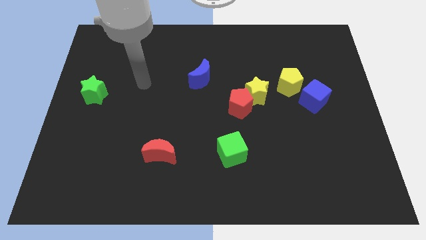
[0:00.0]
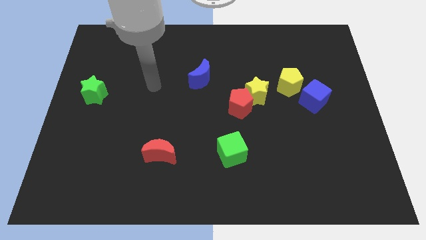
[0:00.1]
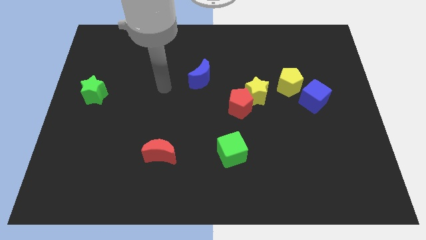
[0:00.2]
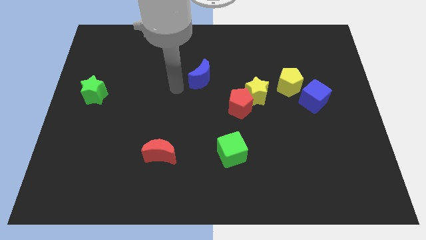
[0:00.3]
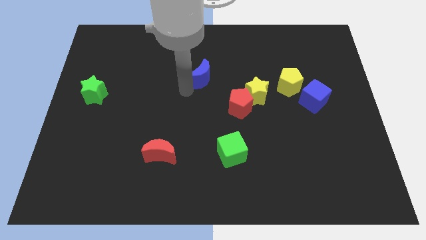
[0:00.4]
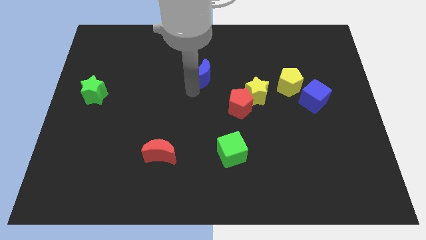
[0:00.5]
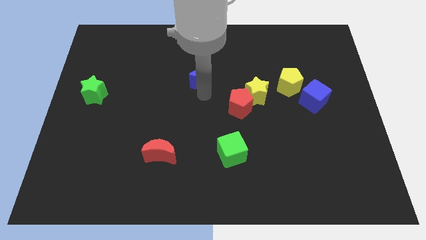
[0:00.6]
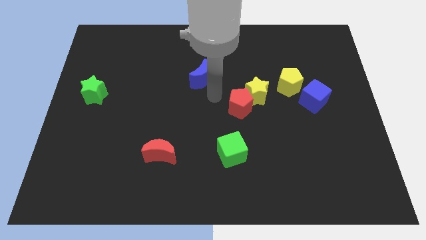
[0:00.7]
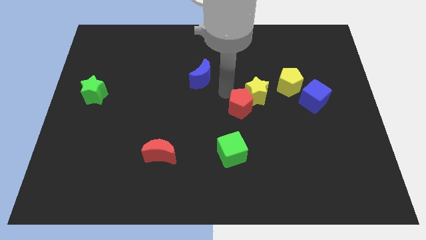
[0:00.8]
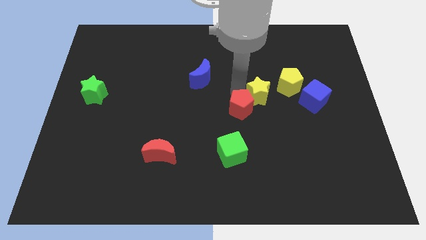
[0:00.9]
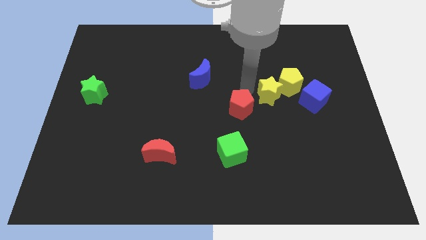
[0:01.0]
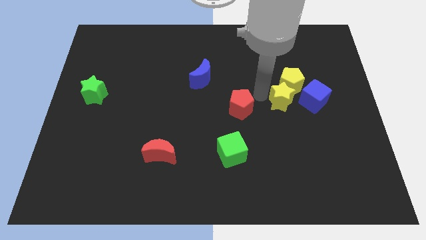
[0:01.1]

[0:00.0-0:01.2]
separate the red pentagon from the yellow star

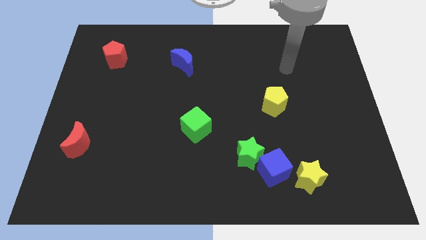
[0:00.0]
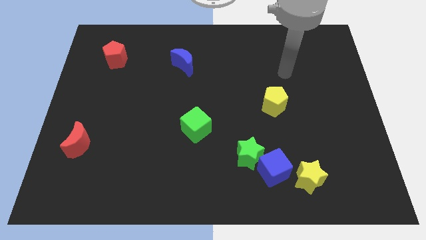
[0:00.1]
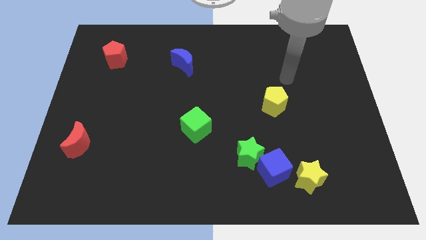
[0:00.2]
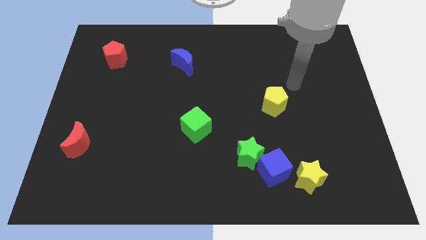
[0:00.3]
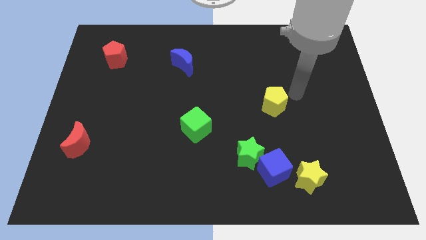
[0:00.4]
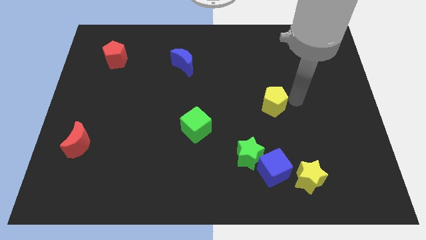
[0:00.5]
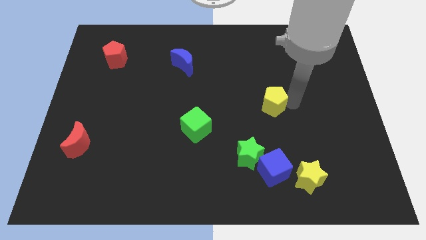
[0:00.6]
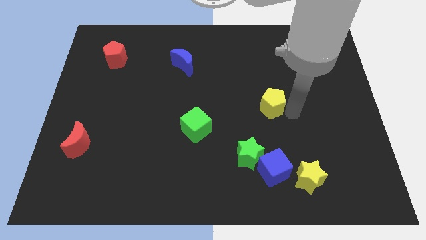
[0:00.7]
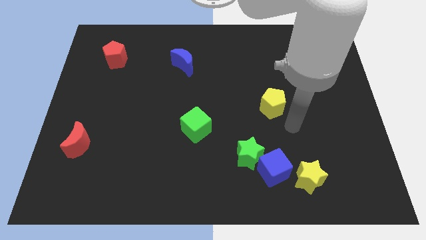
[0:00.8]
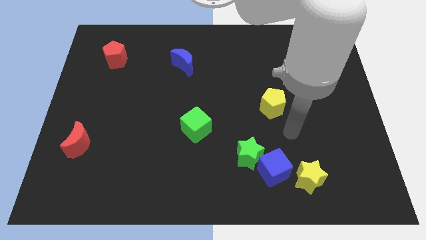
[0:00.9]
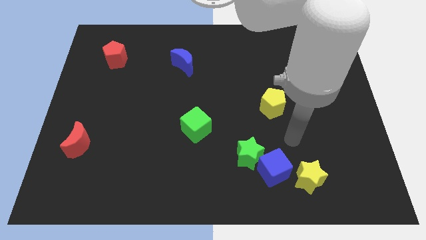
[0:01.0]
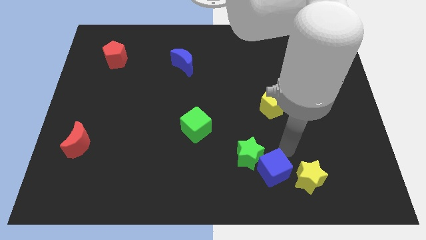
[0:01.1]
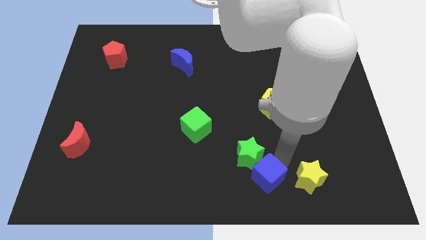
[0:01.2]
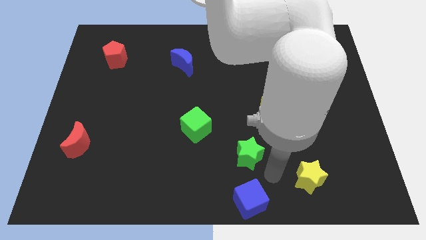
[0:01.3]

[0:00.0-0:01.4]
pull the green star apart from the blue cube

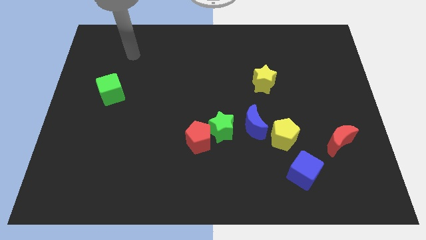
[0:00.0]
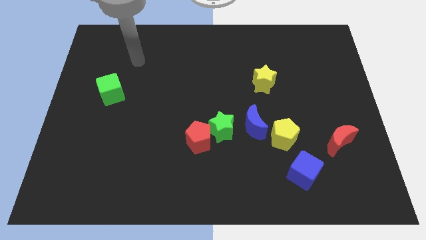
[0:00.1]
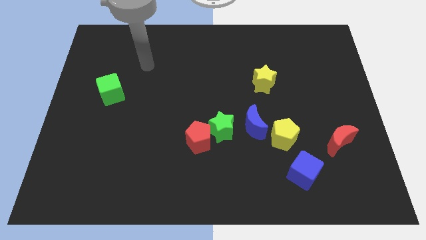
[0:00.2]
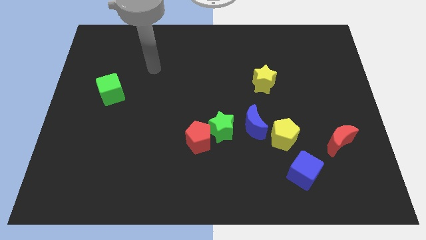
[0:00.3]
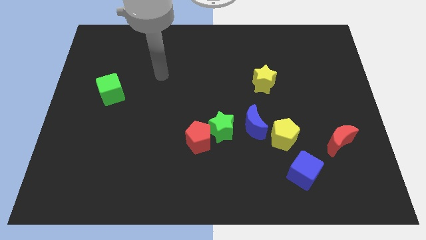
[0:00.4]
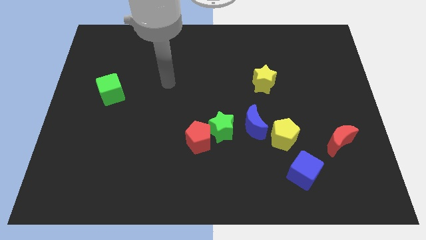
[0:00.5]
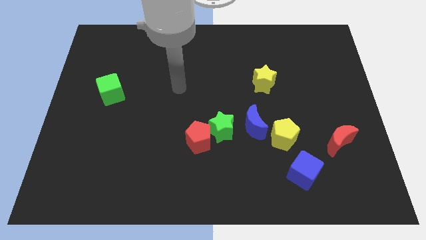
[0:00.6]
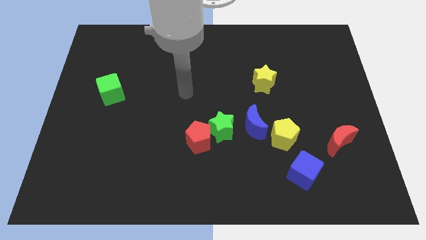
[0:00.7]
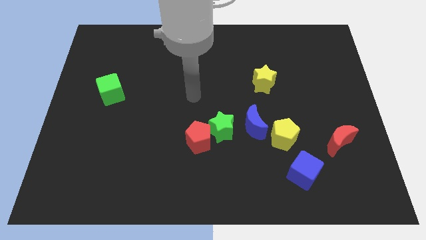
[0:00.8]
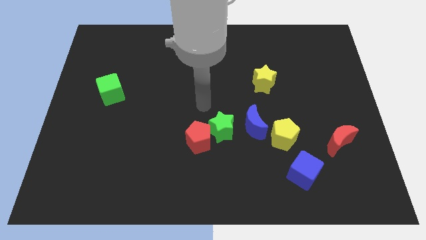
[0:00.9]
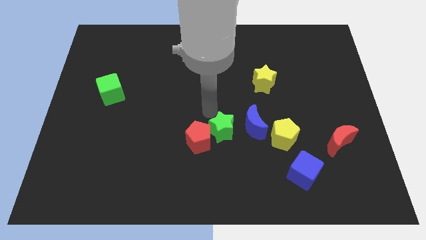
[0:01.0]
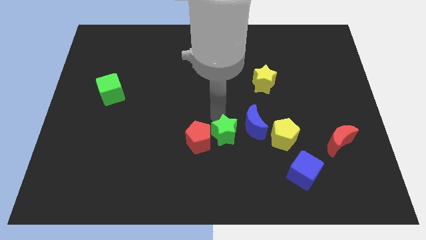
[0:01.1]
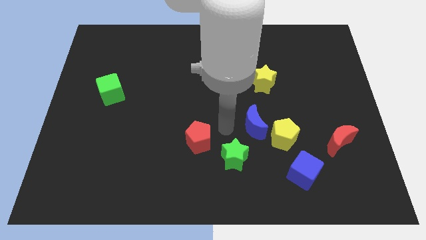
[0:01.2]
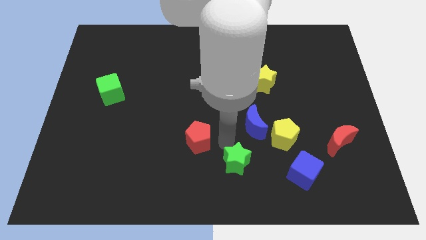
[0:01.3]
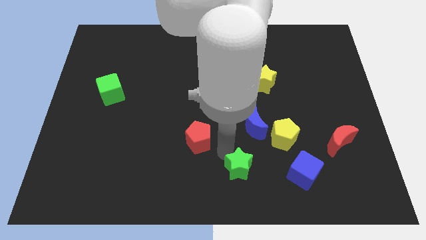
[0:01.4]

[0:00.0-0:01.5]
pull the red pentagon apart from the green star

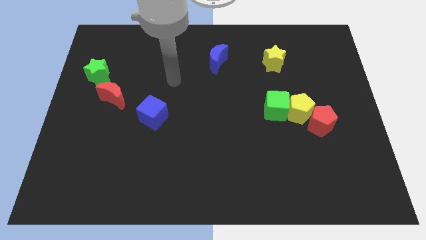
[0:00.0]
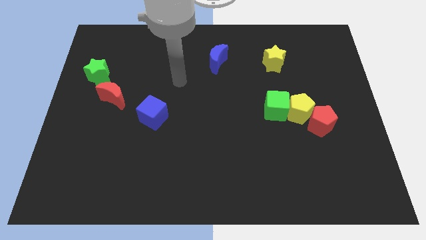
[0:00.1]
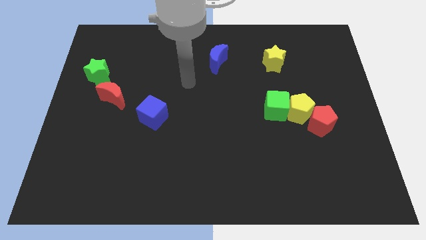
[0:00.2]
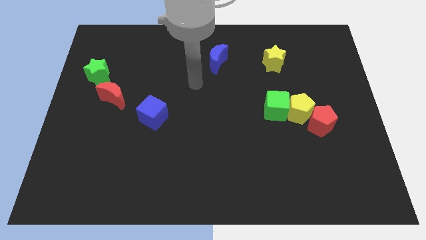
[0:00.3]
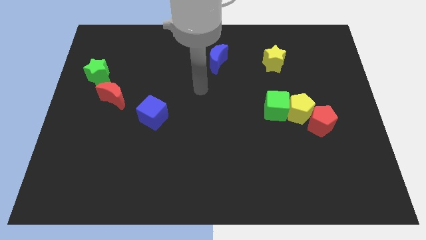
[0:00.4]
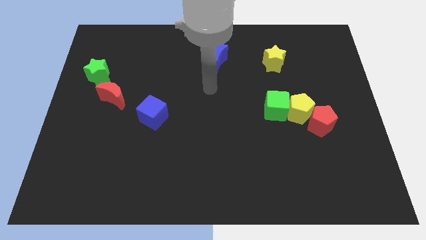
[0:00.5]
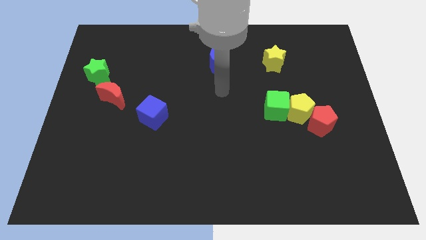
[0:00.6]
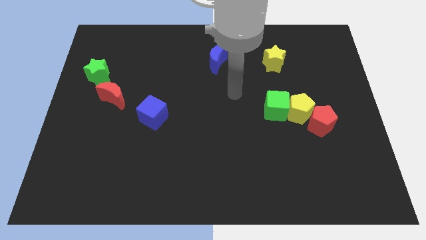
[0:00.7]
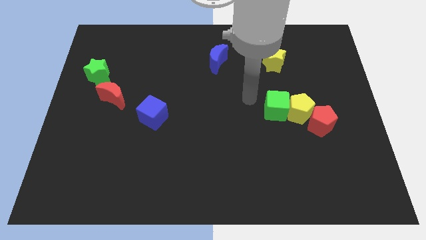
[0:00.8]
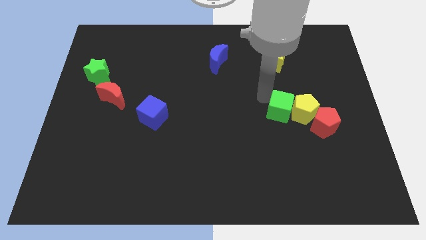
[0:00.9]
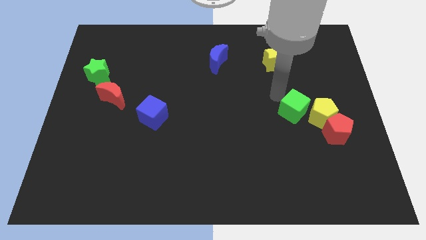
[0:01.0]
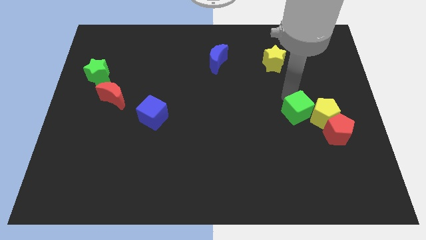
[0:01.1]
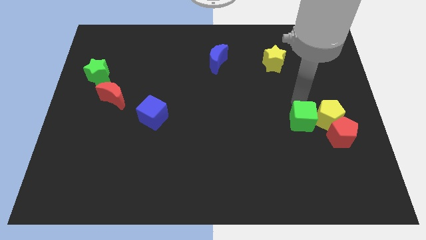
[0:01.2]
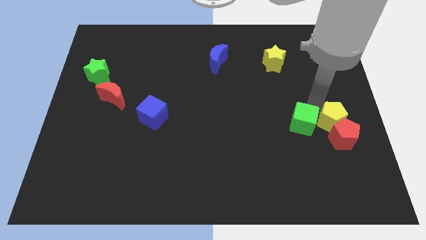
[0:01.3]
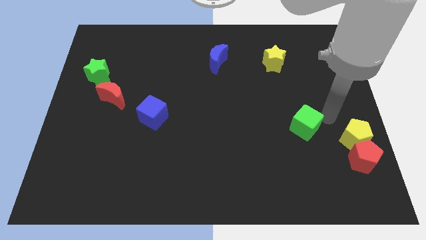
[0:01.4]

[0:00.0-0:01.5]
move the green cube away from the yellow pentagon

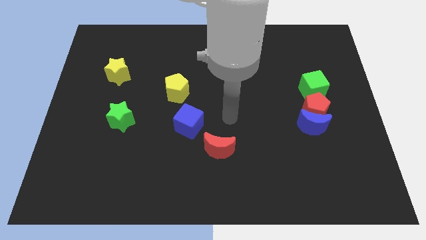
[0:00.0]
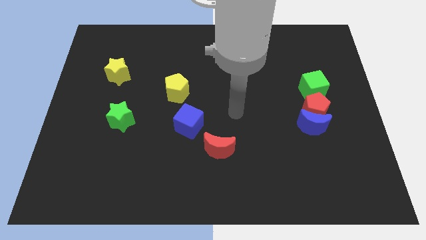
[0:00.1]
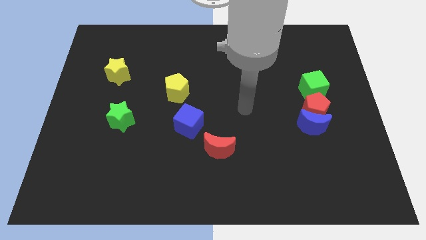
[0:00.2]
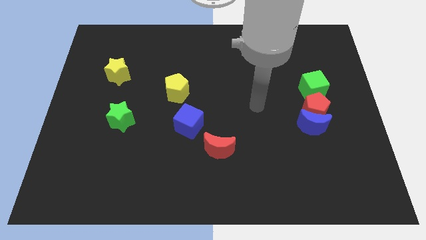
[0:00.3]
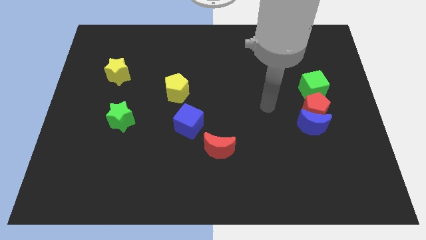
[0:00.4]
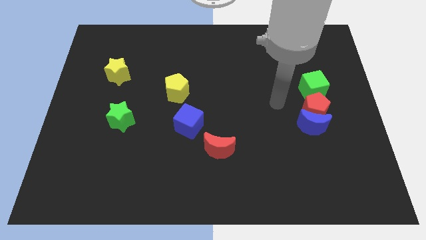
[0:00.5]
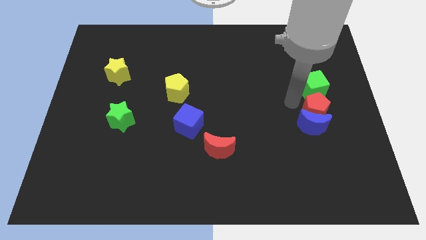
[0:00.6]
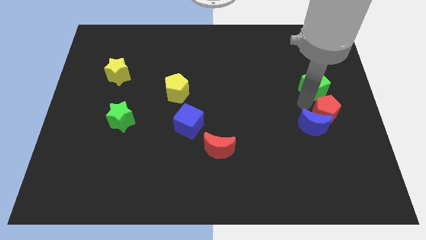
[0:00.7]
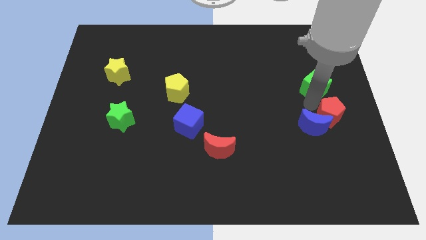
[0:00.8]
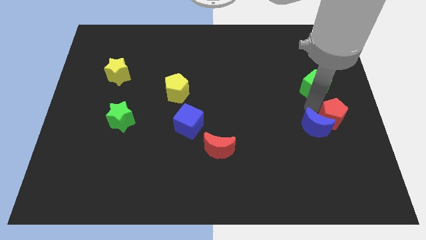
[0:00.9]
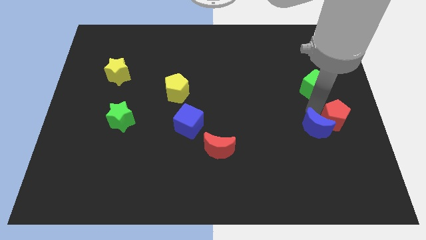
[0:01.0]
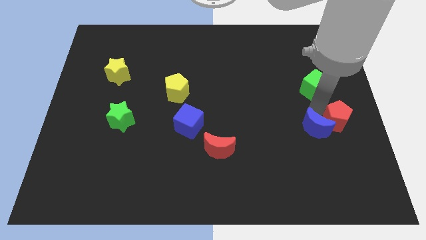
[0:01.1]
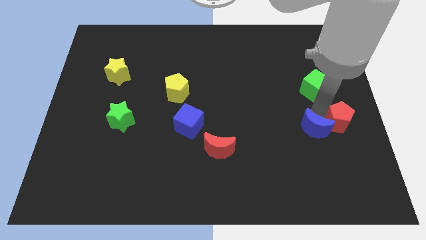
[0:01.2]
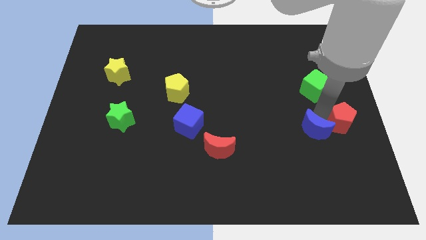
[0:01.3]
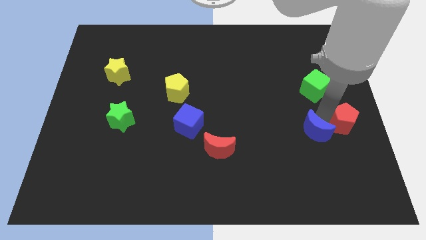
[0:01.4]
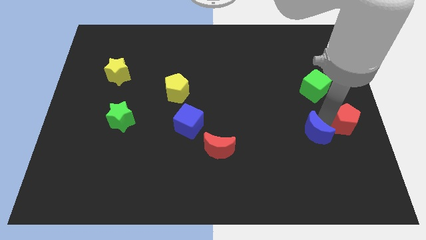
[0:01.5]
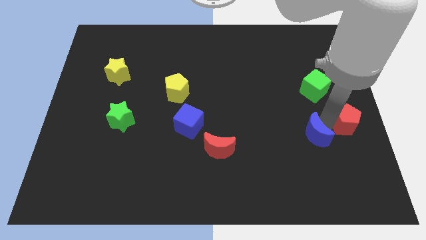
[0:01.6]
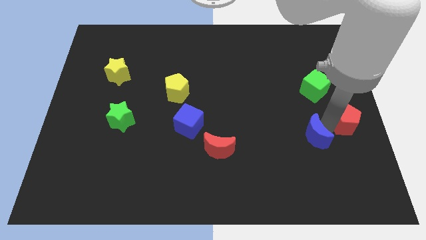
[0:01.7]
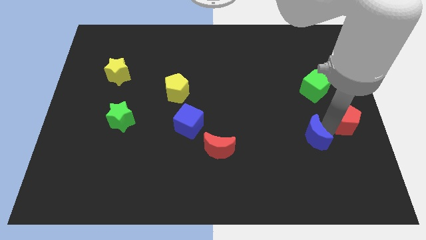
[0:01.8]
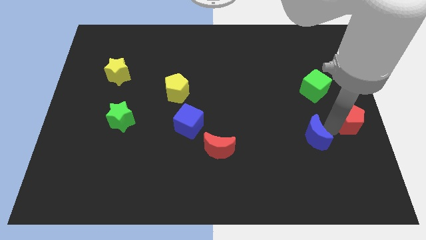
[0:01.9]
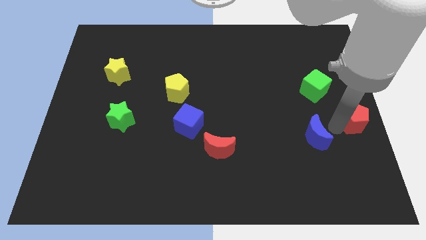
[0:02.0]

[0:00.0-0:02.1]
pull the blue moon apart from the red pentagon

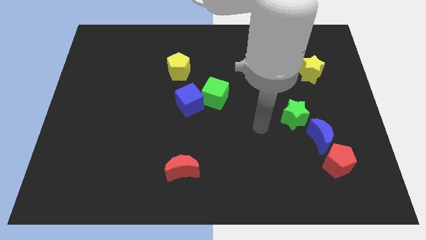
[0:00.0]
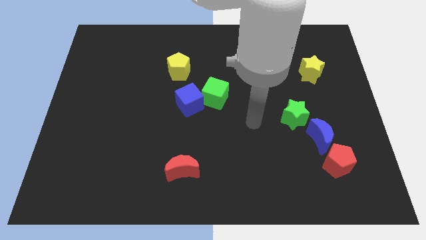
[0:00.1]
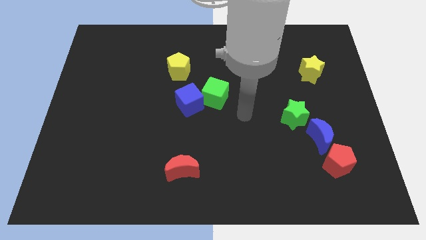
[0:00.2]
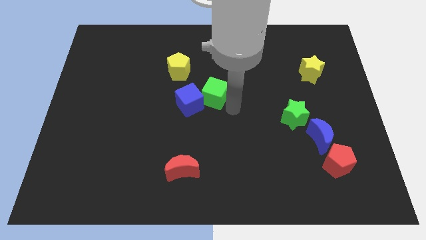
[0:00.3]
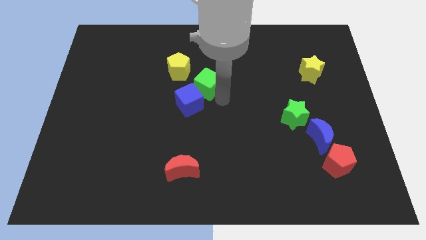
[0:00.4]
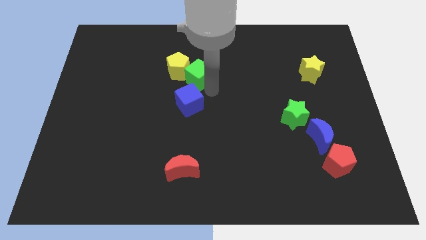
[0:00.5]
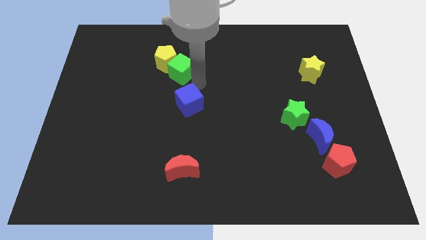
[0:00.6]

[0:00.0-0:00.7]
pull the blue cube apart from the green cube

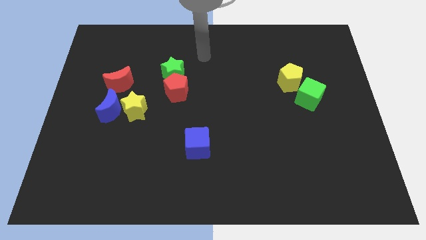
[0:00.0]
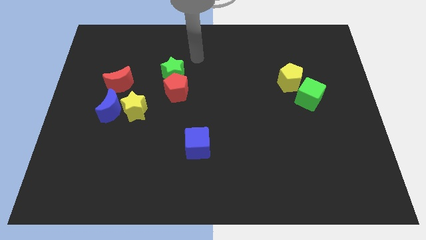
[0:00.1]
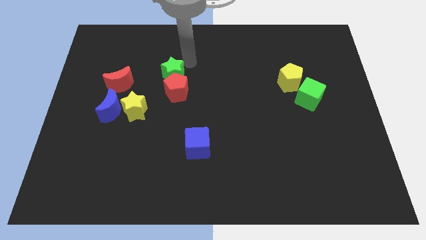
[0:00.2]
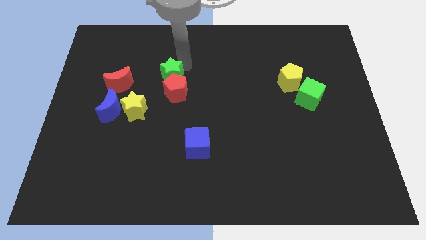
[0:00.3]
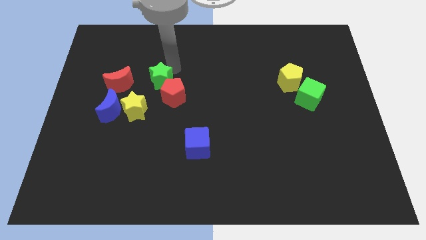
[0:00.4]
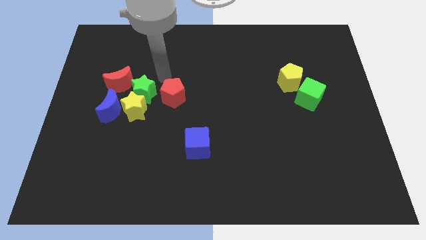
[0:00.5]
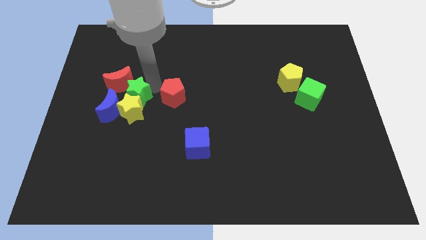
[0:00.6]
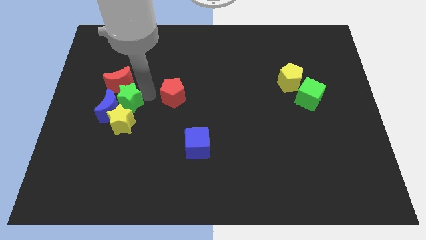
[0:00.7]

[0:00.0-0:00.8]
separate the red pentagon from the green star
